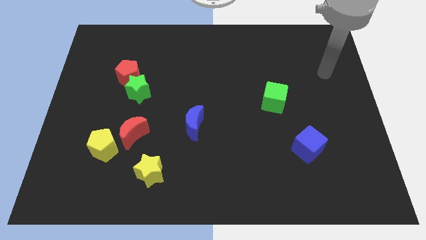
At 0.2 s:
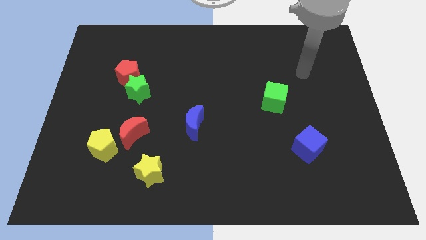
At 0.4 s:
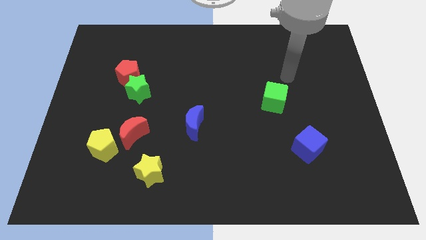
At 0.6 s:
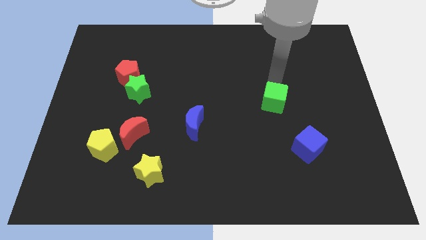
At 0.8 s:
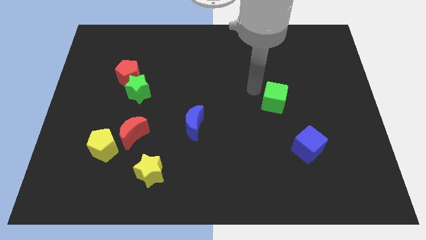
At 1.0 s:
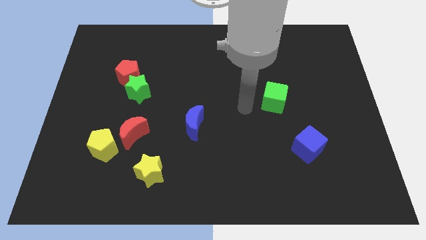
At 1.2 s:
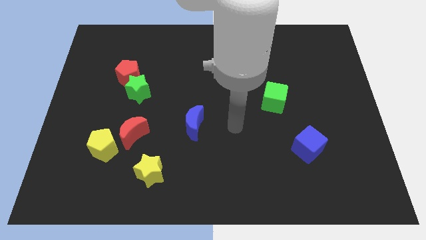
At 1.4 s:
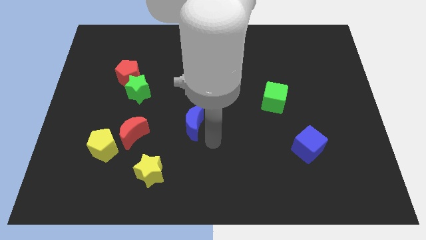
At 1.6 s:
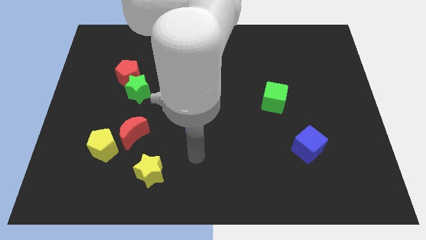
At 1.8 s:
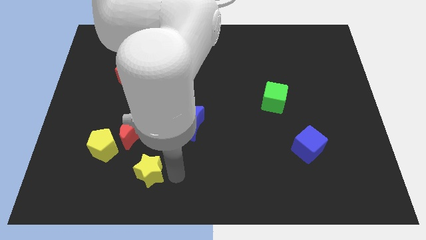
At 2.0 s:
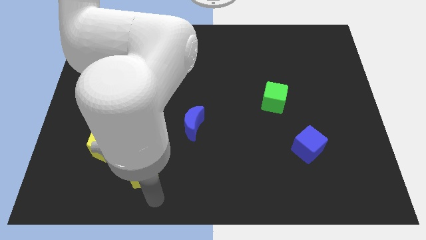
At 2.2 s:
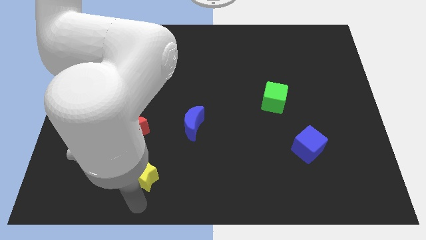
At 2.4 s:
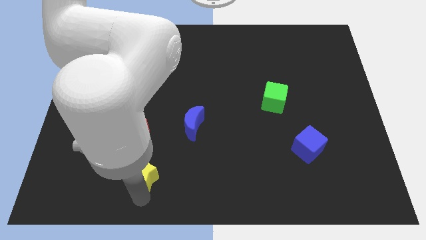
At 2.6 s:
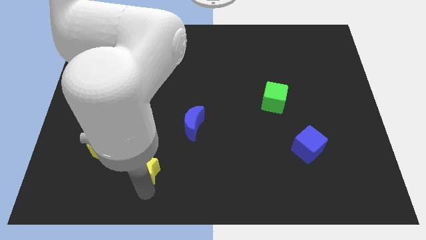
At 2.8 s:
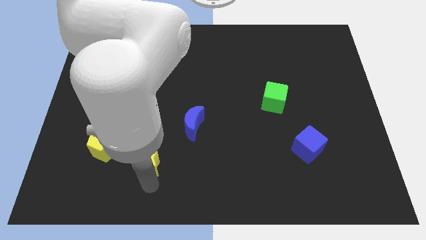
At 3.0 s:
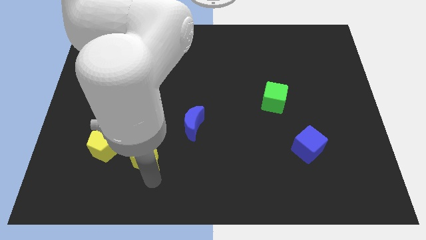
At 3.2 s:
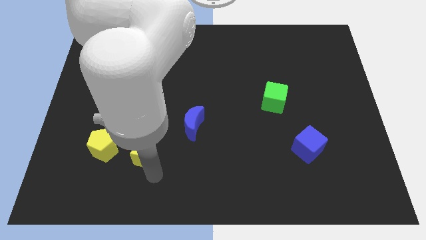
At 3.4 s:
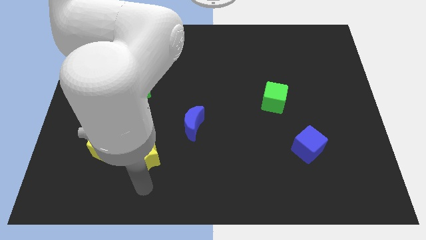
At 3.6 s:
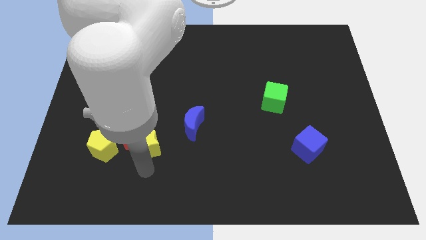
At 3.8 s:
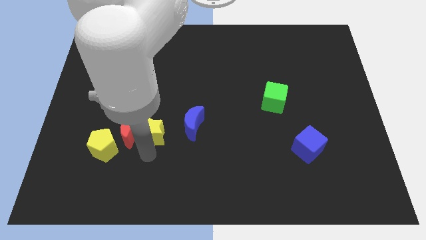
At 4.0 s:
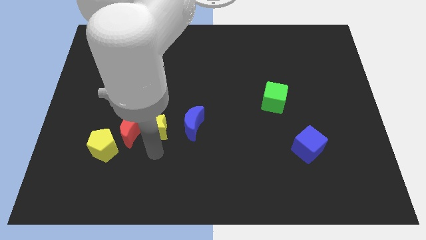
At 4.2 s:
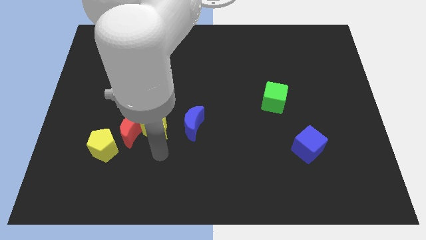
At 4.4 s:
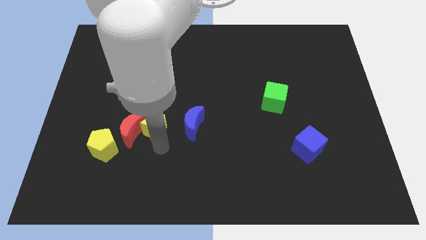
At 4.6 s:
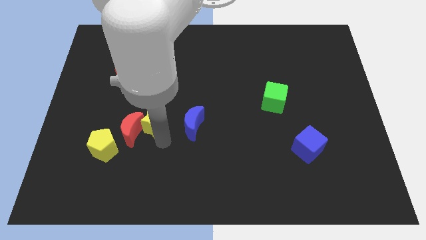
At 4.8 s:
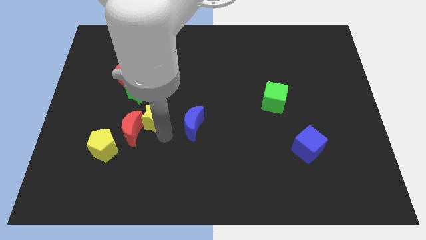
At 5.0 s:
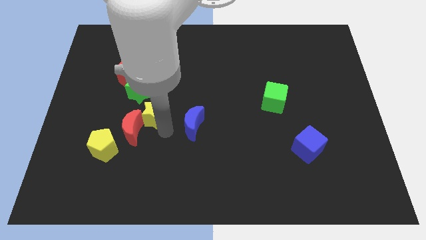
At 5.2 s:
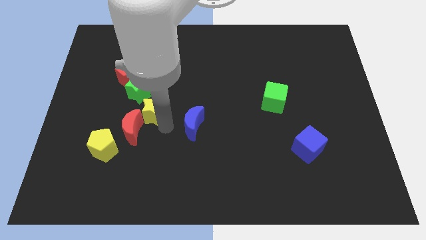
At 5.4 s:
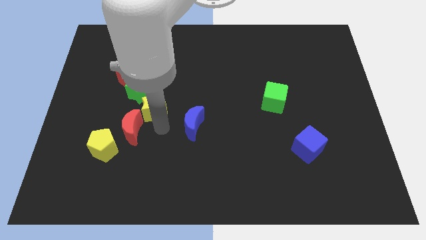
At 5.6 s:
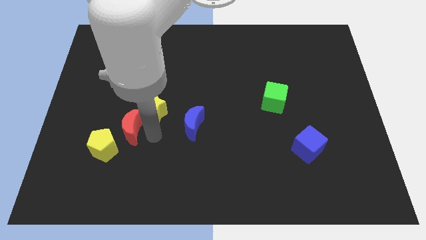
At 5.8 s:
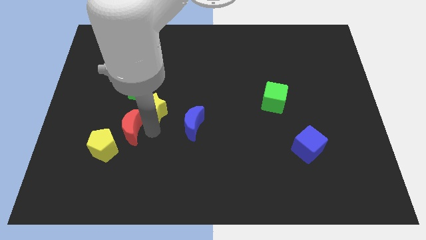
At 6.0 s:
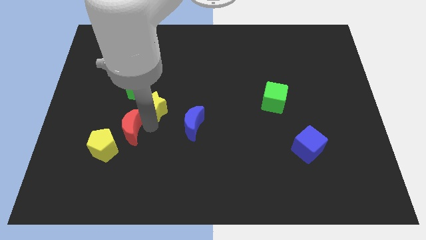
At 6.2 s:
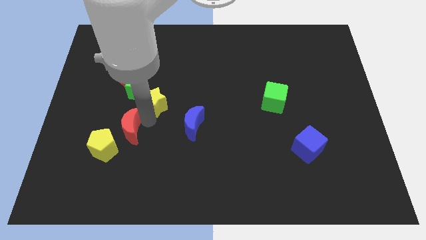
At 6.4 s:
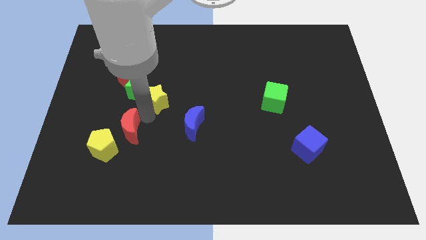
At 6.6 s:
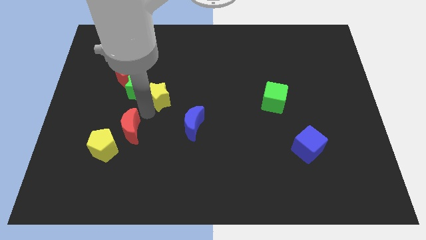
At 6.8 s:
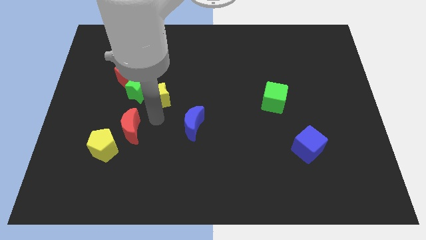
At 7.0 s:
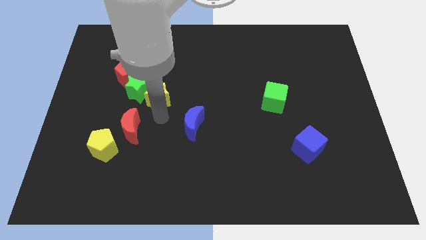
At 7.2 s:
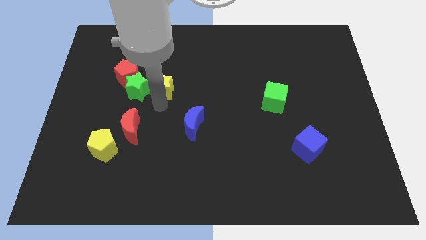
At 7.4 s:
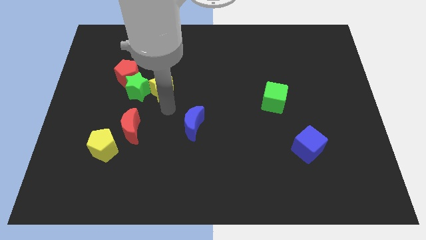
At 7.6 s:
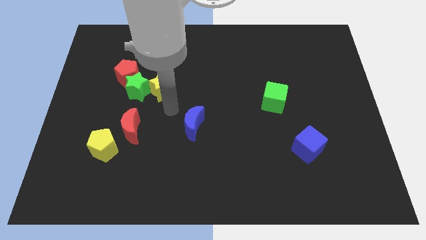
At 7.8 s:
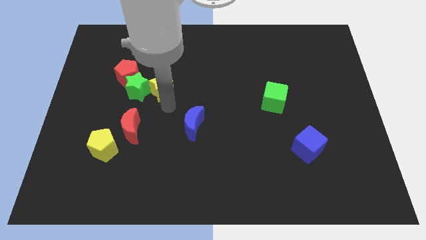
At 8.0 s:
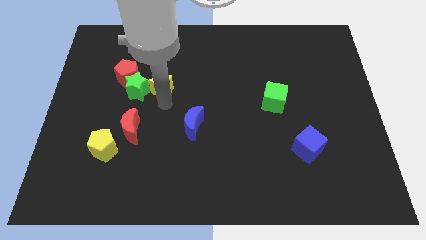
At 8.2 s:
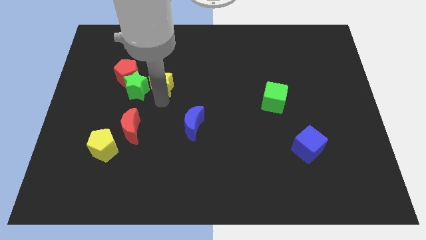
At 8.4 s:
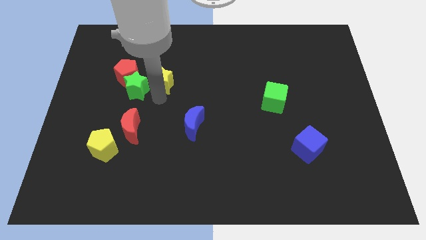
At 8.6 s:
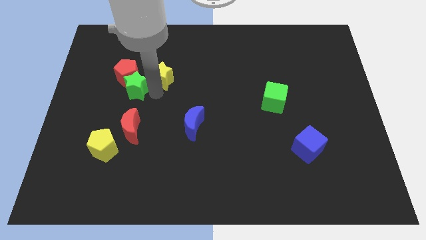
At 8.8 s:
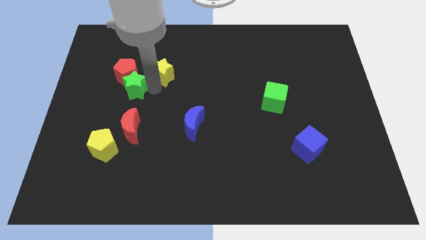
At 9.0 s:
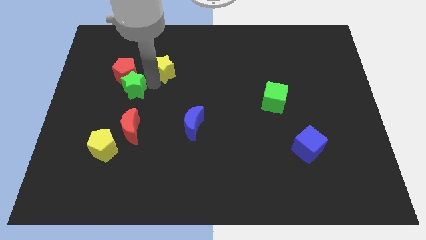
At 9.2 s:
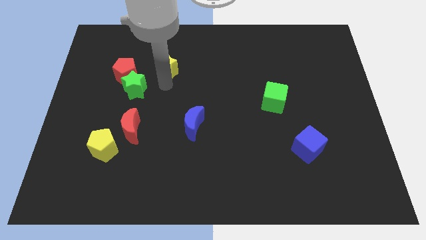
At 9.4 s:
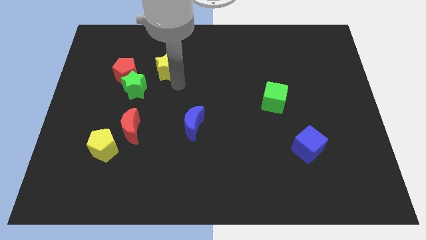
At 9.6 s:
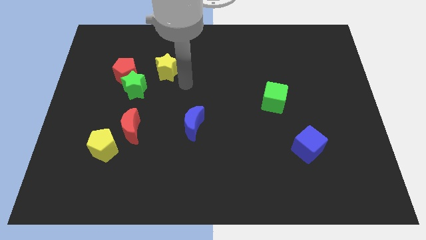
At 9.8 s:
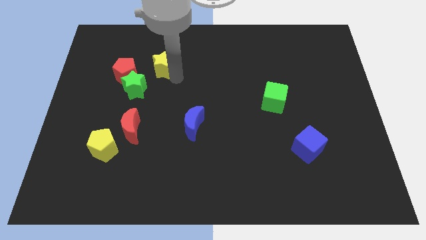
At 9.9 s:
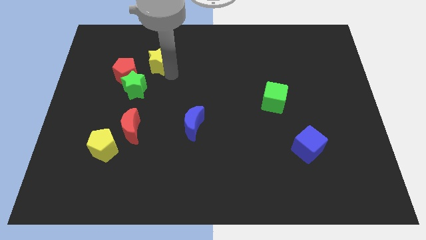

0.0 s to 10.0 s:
slide the yellow star to the top right of the red pentagon

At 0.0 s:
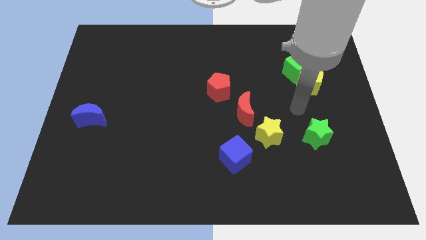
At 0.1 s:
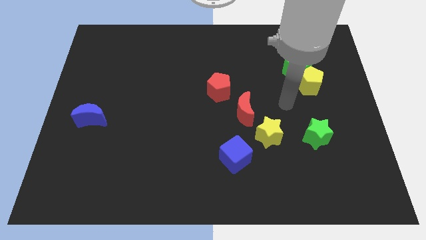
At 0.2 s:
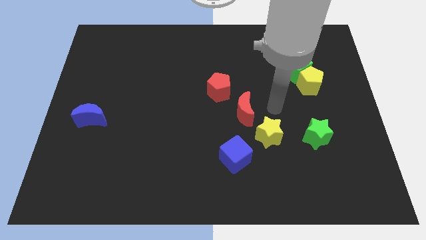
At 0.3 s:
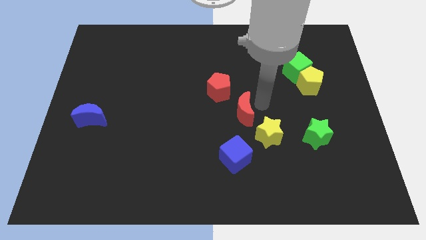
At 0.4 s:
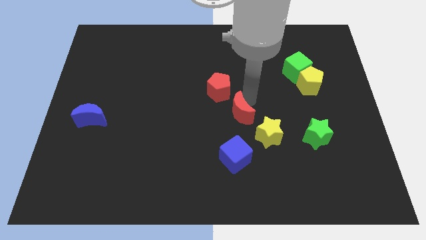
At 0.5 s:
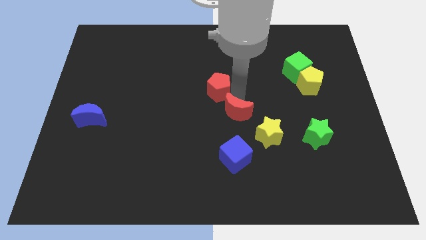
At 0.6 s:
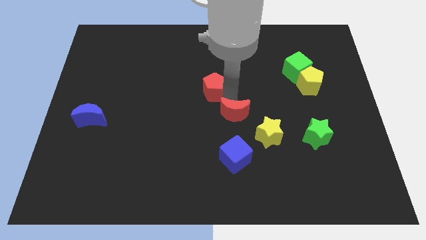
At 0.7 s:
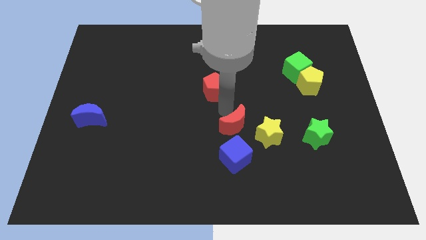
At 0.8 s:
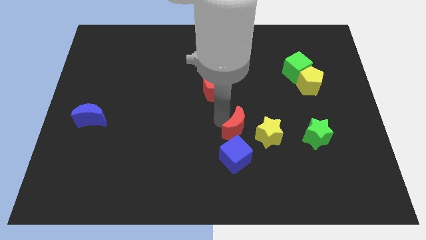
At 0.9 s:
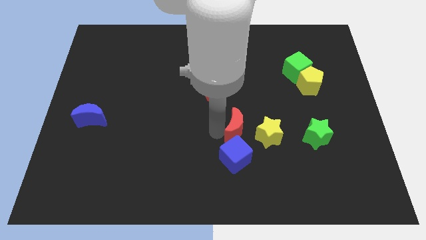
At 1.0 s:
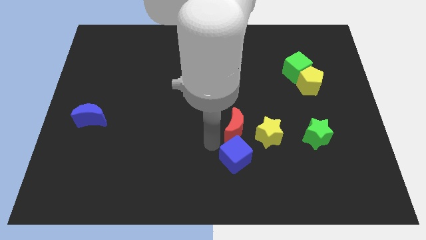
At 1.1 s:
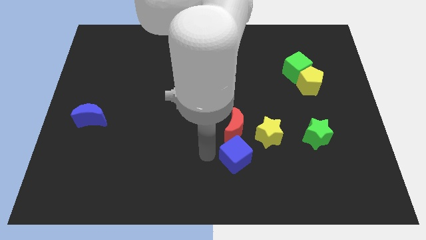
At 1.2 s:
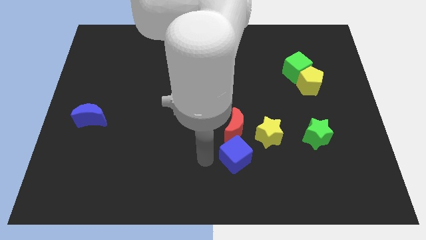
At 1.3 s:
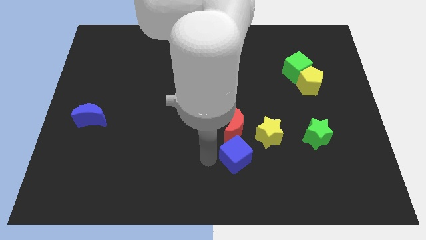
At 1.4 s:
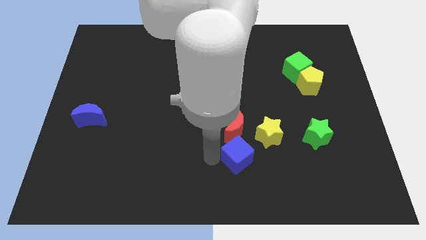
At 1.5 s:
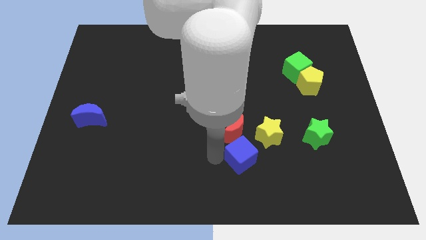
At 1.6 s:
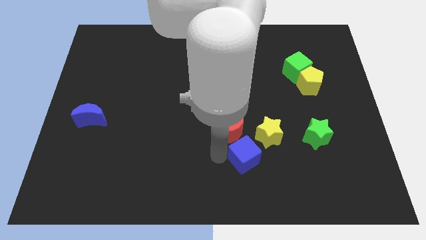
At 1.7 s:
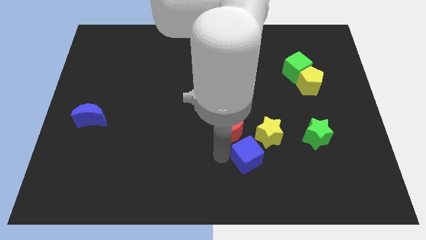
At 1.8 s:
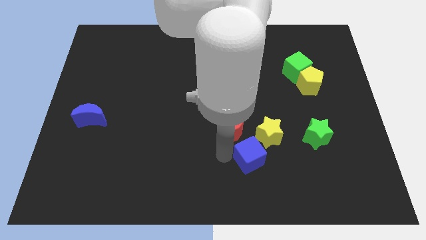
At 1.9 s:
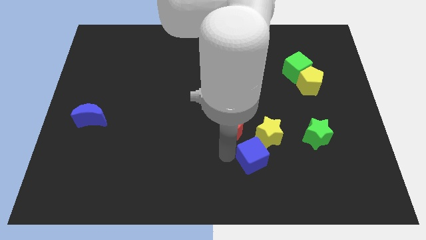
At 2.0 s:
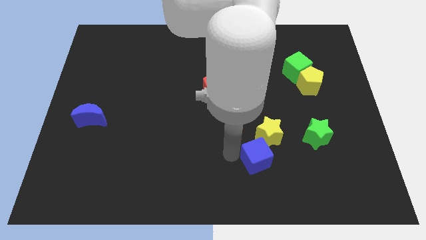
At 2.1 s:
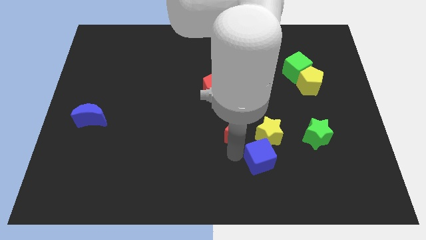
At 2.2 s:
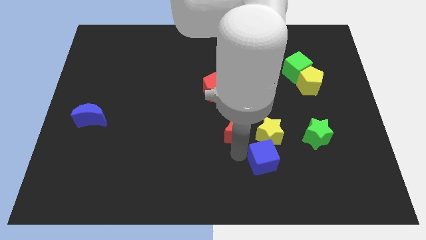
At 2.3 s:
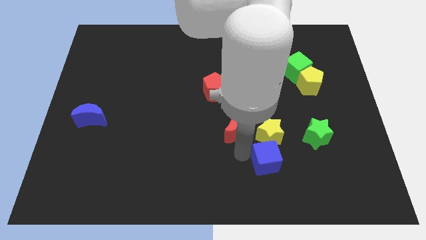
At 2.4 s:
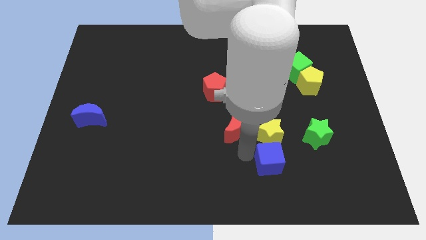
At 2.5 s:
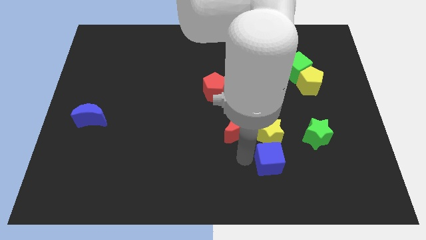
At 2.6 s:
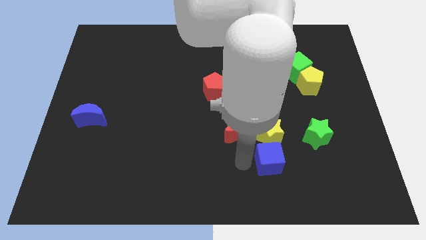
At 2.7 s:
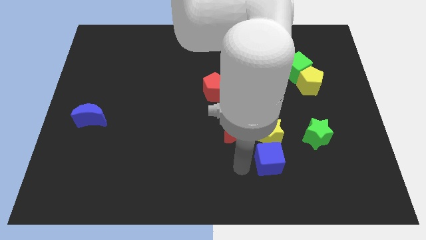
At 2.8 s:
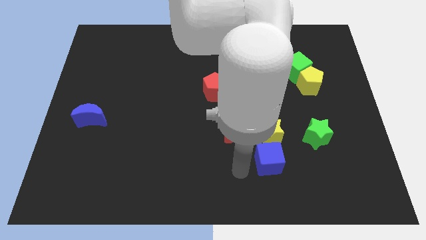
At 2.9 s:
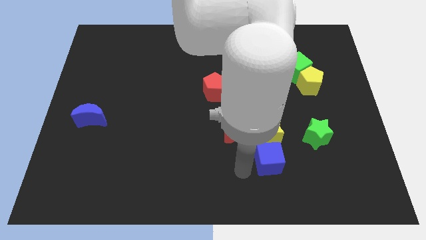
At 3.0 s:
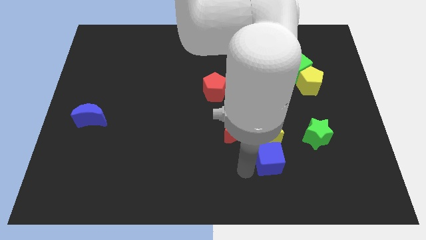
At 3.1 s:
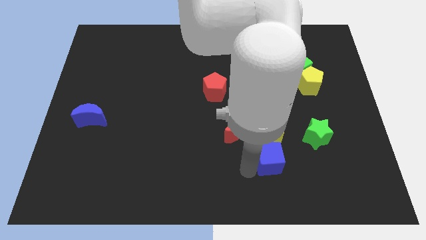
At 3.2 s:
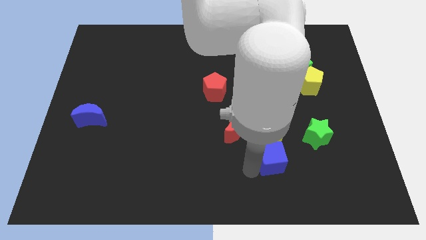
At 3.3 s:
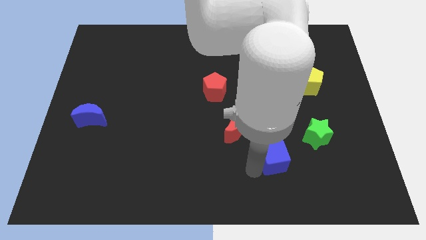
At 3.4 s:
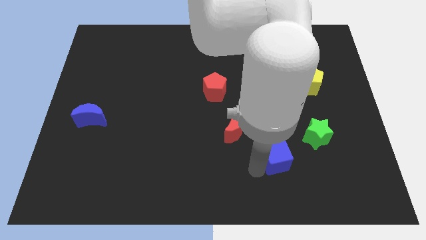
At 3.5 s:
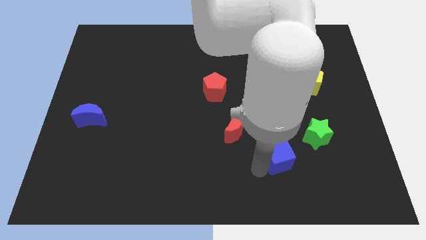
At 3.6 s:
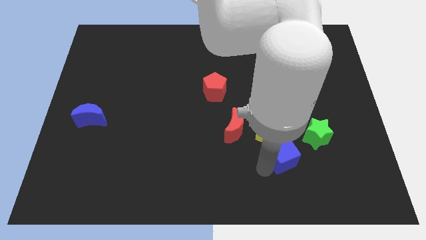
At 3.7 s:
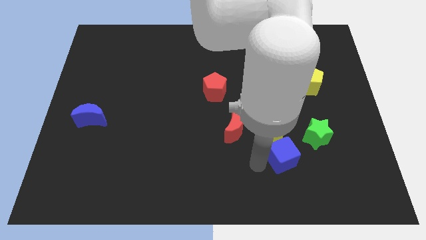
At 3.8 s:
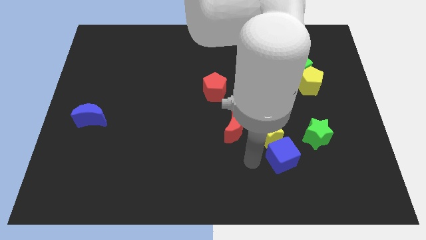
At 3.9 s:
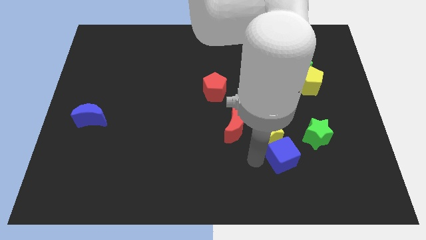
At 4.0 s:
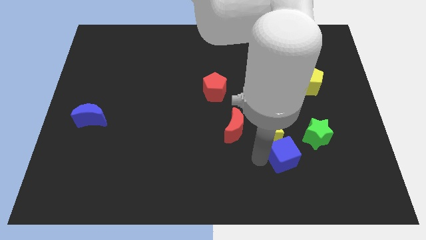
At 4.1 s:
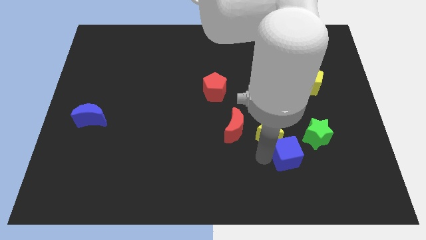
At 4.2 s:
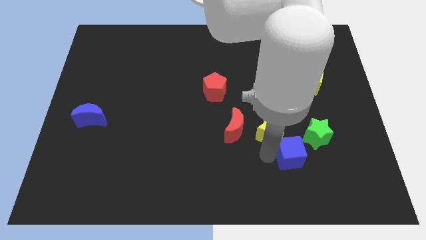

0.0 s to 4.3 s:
slide the blue cube to the right side of the yellow star
